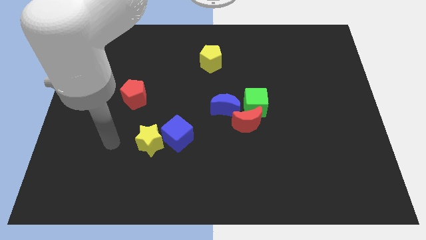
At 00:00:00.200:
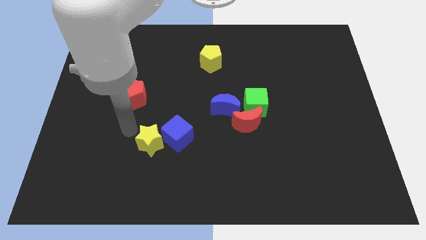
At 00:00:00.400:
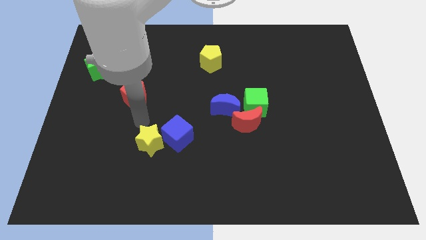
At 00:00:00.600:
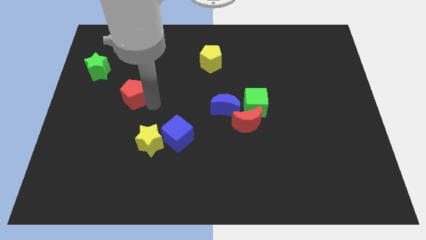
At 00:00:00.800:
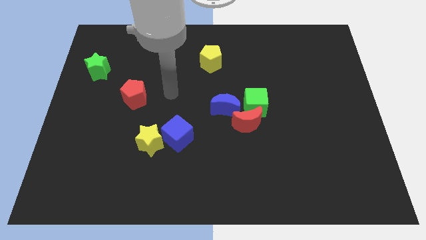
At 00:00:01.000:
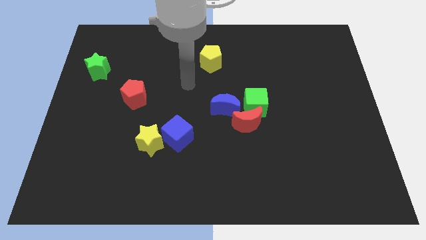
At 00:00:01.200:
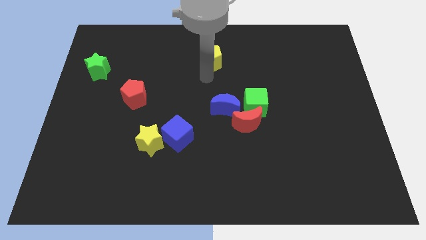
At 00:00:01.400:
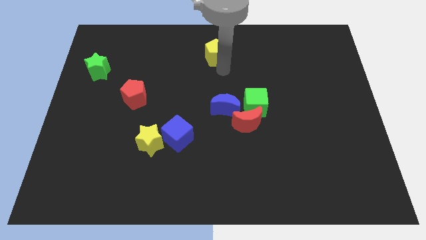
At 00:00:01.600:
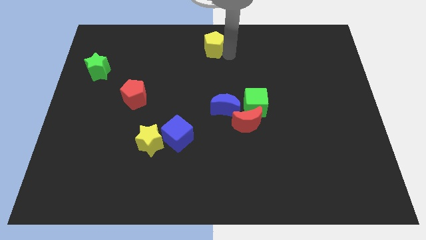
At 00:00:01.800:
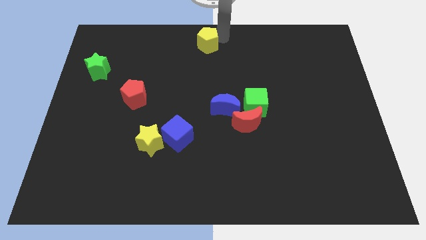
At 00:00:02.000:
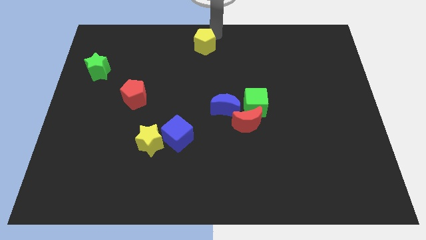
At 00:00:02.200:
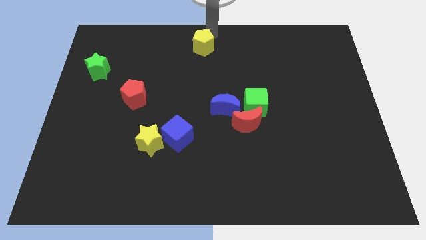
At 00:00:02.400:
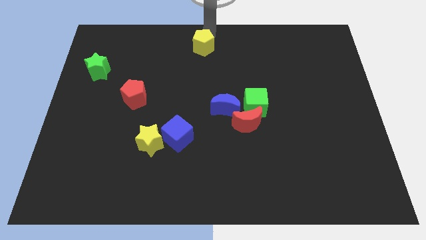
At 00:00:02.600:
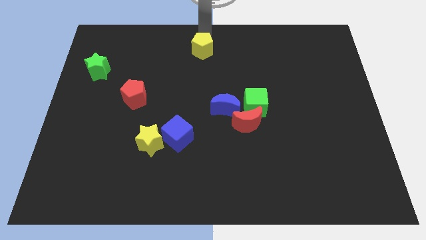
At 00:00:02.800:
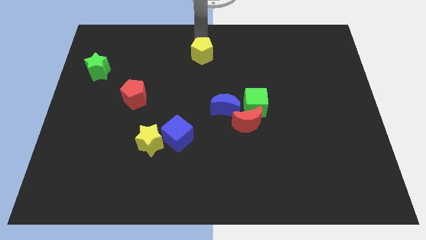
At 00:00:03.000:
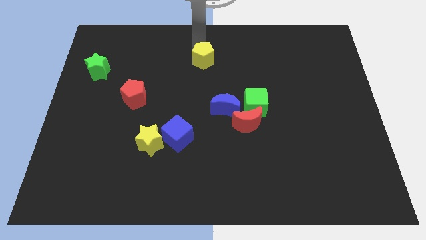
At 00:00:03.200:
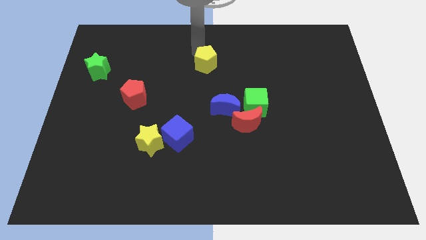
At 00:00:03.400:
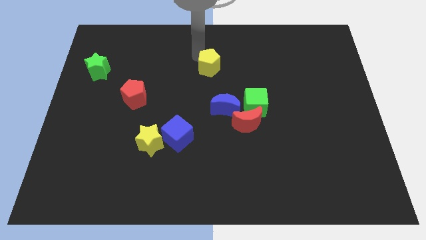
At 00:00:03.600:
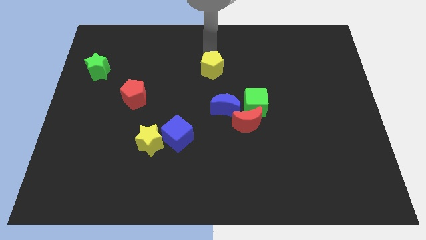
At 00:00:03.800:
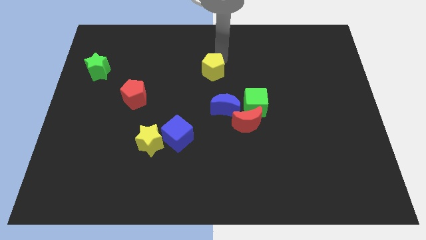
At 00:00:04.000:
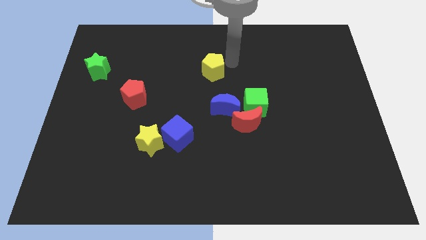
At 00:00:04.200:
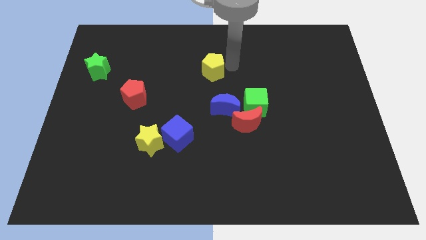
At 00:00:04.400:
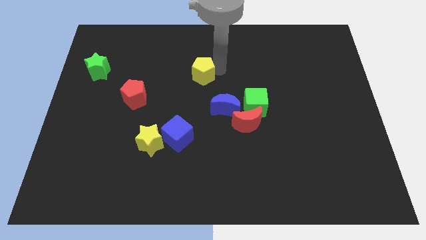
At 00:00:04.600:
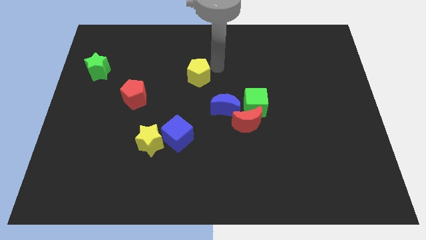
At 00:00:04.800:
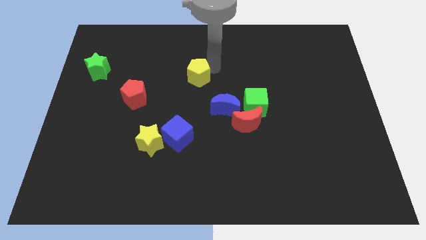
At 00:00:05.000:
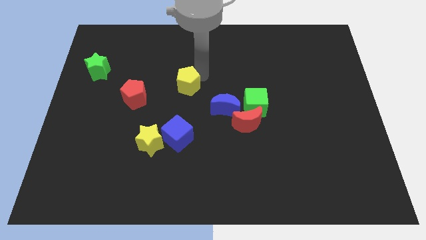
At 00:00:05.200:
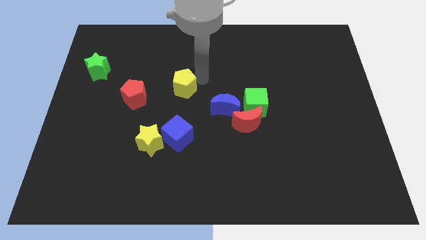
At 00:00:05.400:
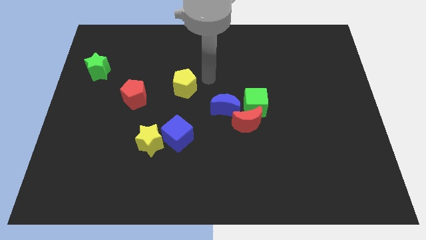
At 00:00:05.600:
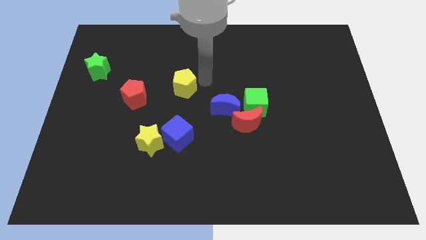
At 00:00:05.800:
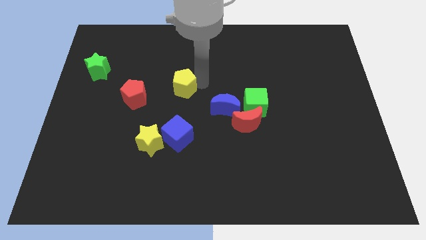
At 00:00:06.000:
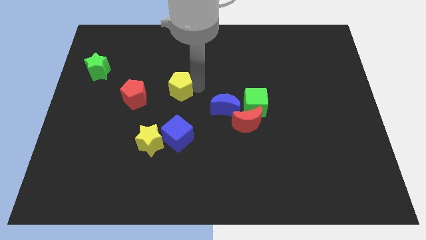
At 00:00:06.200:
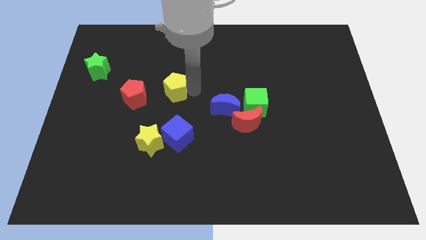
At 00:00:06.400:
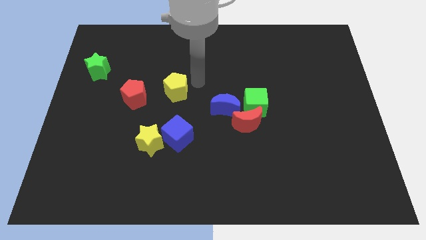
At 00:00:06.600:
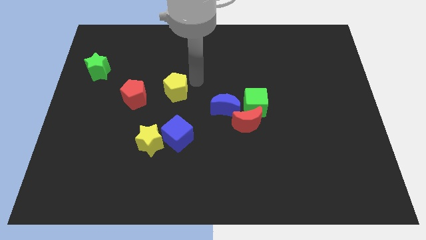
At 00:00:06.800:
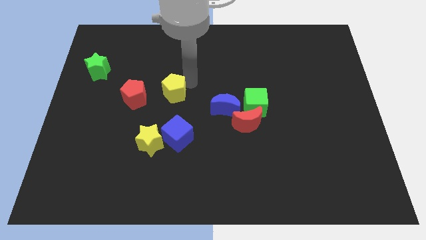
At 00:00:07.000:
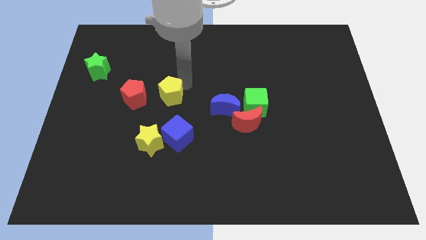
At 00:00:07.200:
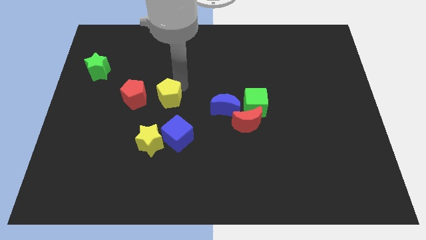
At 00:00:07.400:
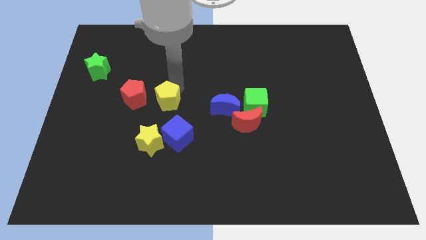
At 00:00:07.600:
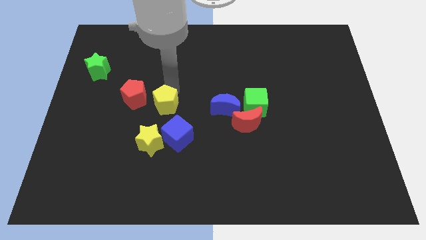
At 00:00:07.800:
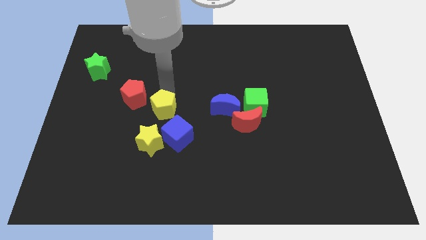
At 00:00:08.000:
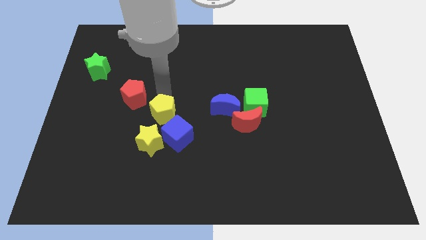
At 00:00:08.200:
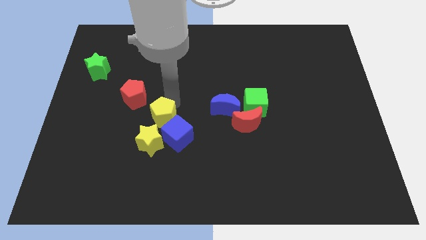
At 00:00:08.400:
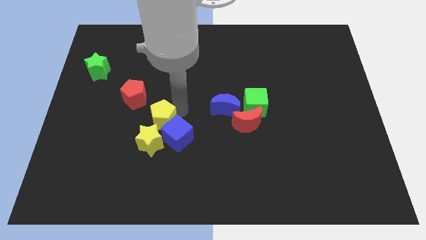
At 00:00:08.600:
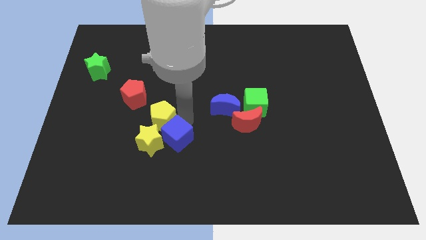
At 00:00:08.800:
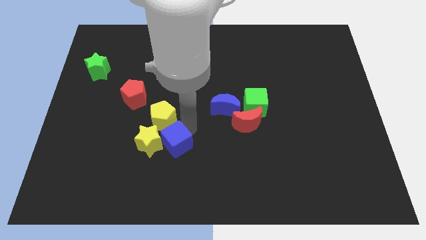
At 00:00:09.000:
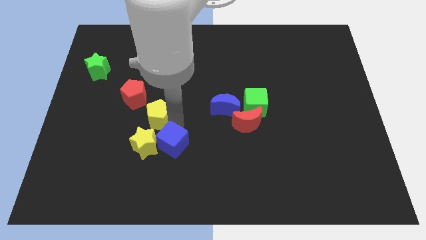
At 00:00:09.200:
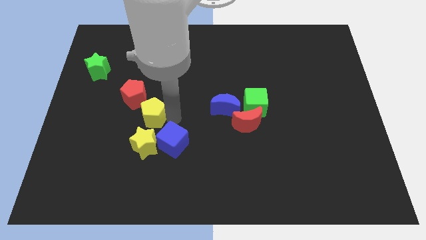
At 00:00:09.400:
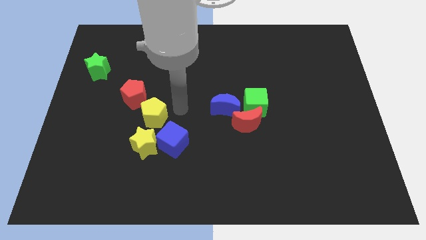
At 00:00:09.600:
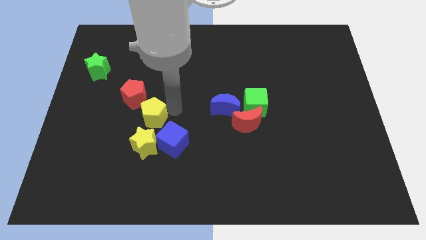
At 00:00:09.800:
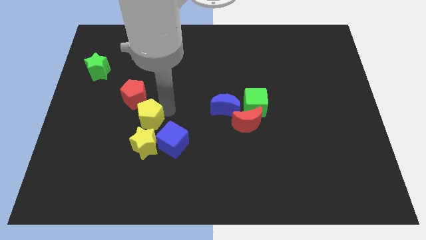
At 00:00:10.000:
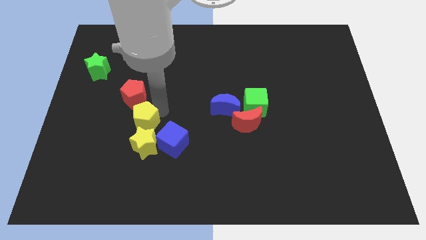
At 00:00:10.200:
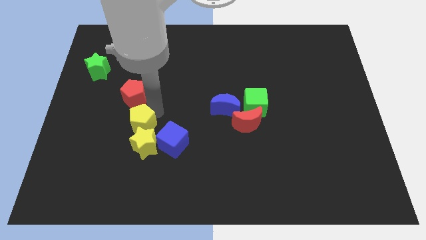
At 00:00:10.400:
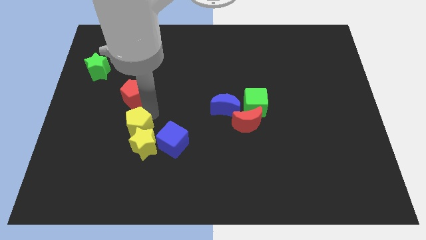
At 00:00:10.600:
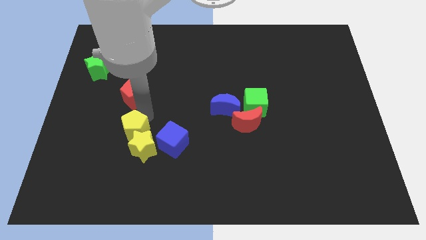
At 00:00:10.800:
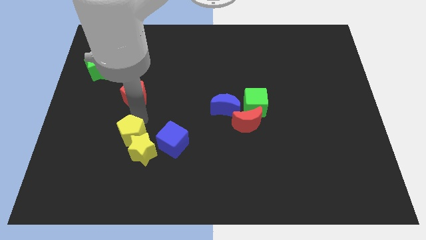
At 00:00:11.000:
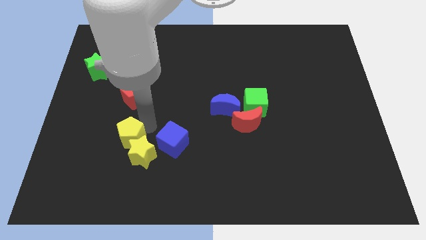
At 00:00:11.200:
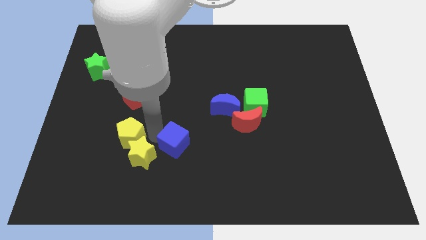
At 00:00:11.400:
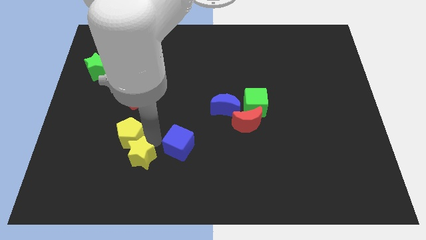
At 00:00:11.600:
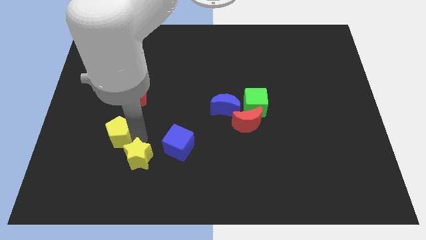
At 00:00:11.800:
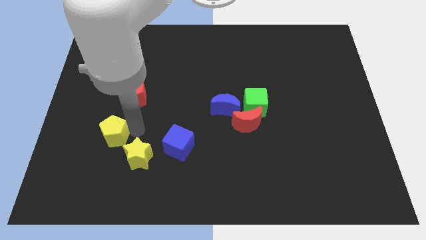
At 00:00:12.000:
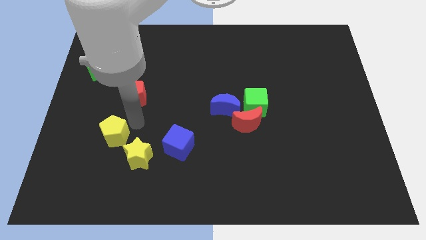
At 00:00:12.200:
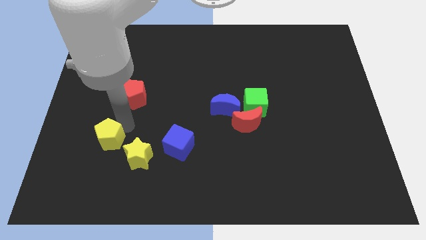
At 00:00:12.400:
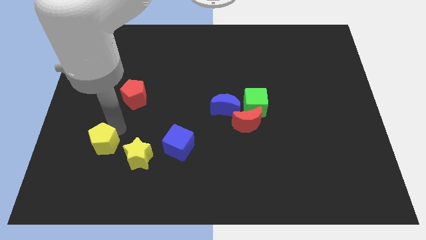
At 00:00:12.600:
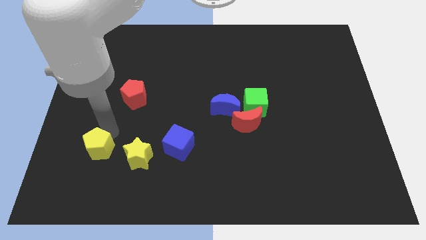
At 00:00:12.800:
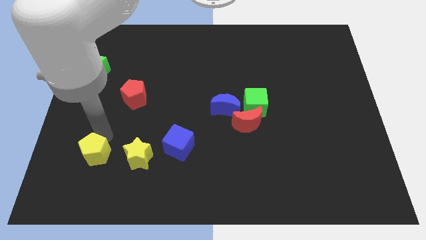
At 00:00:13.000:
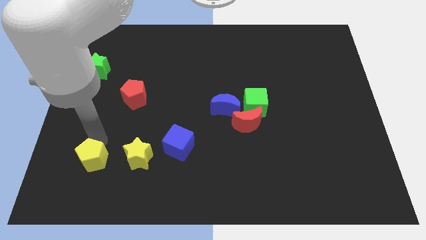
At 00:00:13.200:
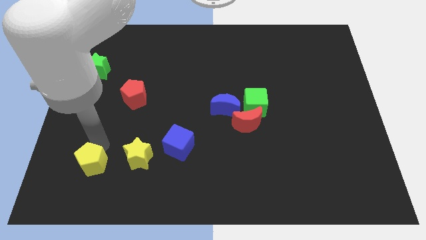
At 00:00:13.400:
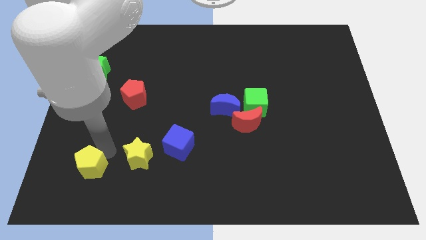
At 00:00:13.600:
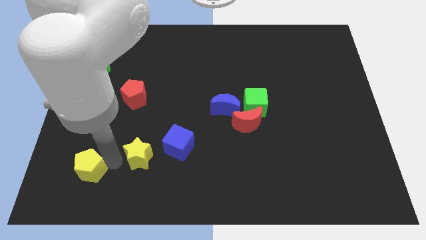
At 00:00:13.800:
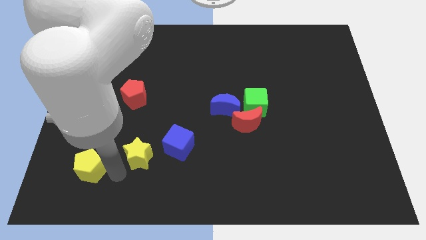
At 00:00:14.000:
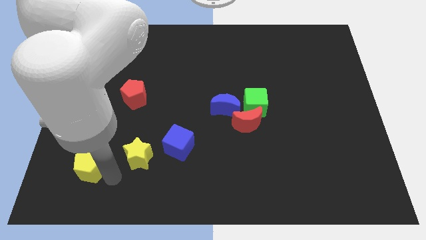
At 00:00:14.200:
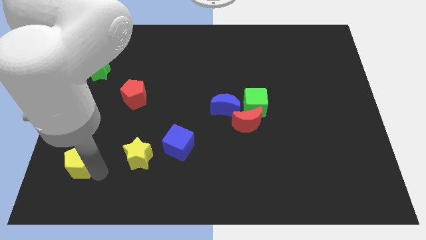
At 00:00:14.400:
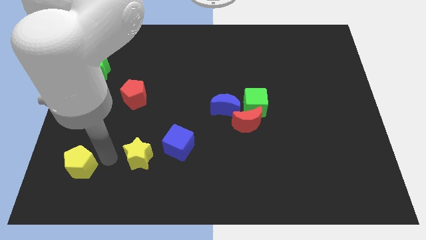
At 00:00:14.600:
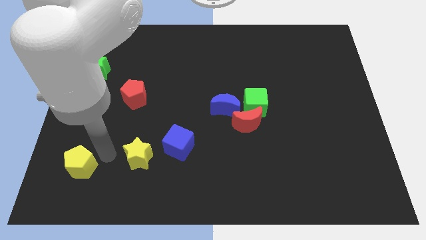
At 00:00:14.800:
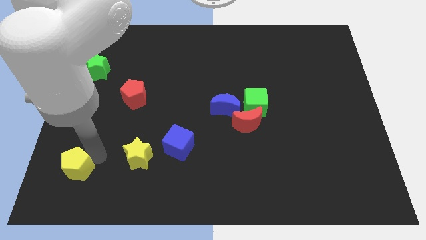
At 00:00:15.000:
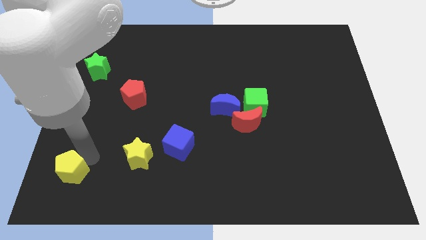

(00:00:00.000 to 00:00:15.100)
push the yellow pentagon to the bottom left corner
